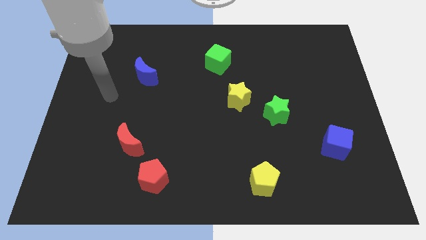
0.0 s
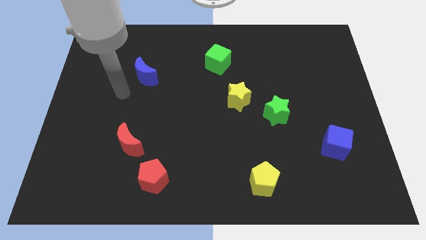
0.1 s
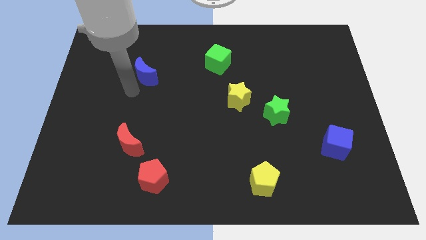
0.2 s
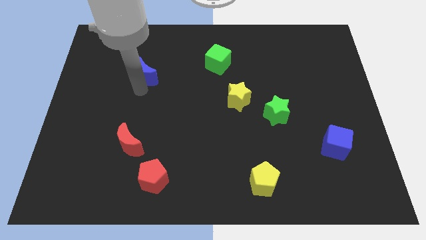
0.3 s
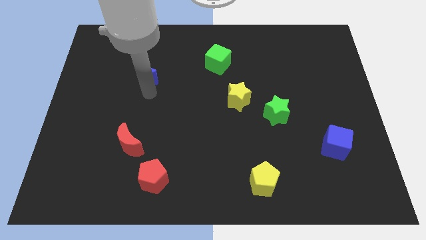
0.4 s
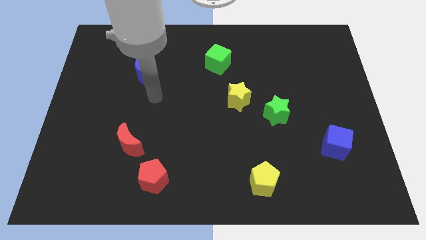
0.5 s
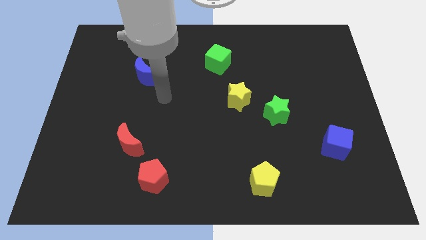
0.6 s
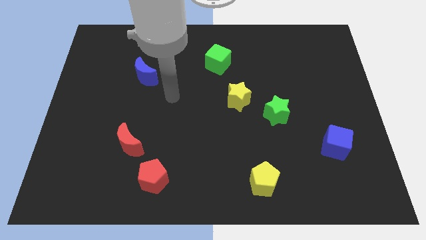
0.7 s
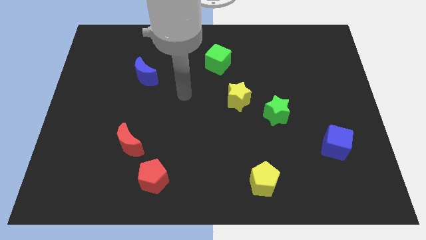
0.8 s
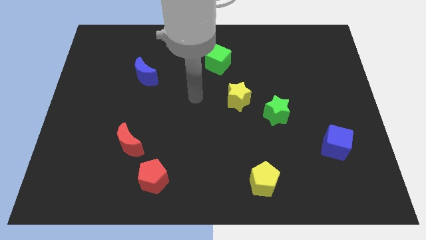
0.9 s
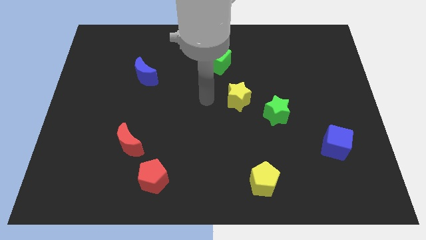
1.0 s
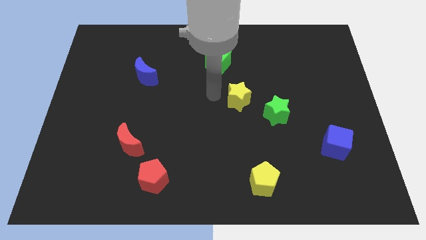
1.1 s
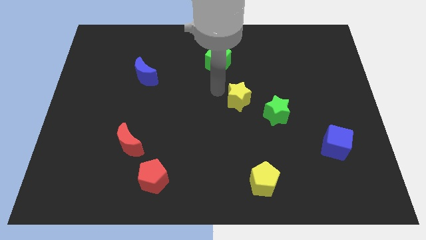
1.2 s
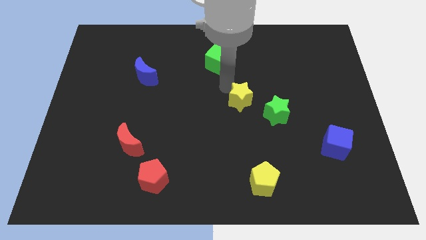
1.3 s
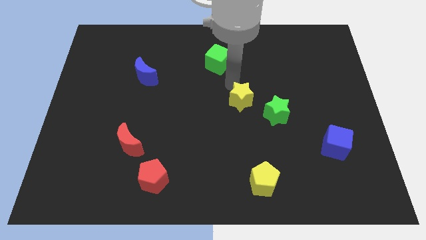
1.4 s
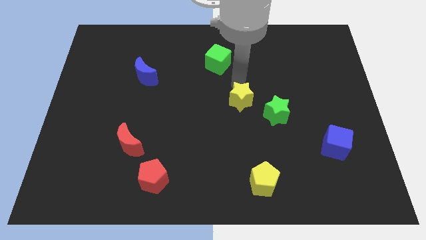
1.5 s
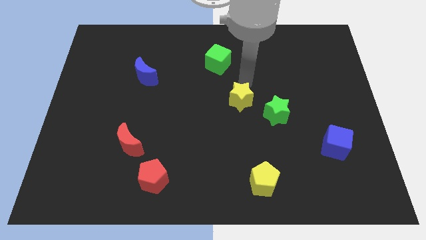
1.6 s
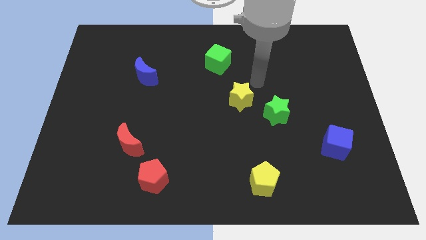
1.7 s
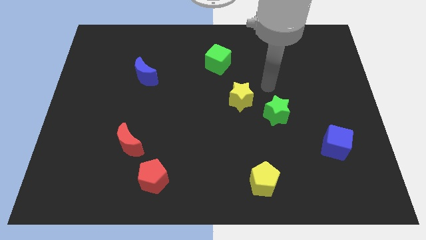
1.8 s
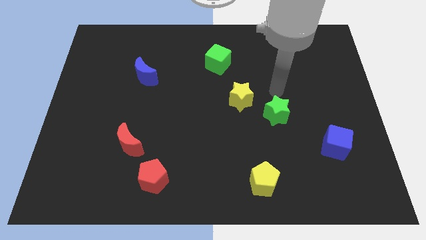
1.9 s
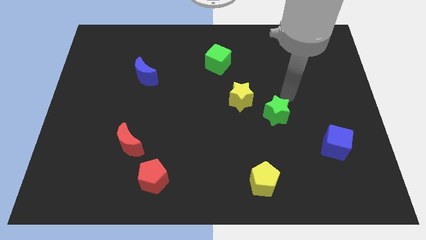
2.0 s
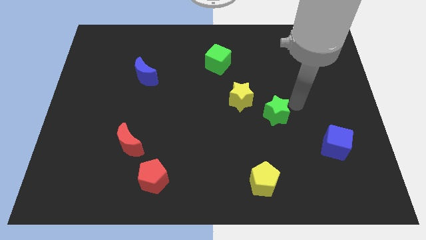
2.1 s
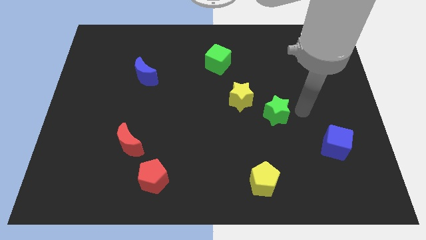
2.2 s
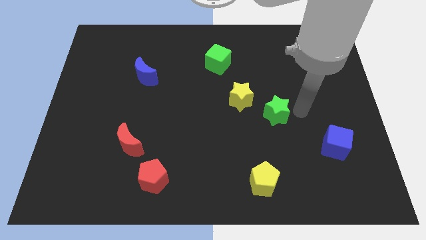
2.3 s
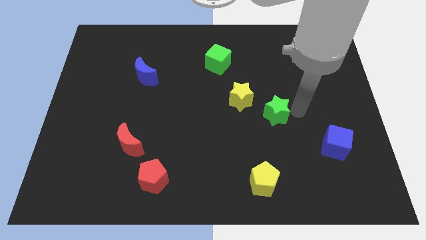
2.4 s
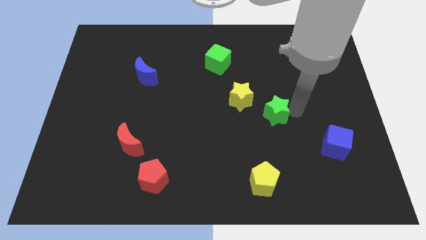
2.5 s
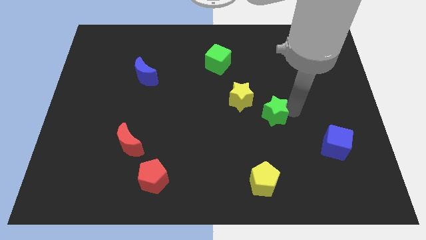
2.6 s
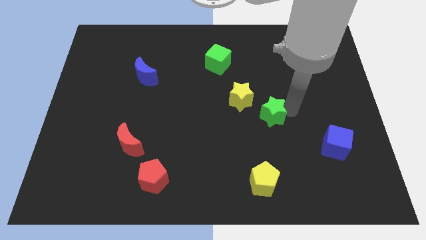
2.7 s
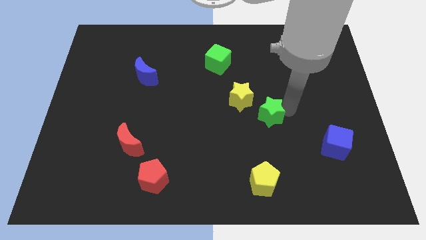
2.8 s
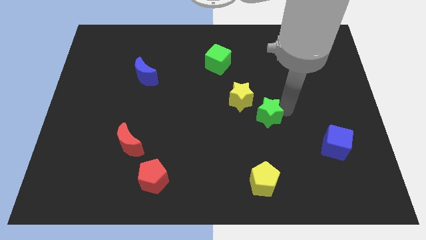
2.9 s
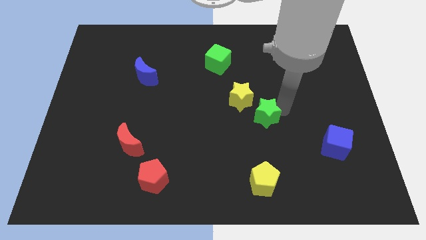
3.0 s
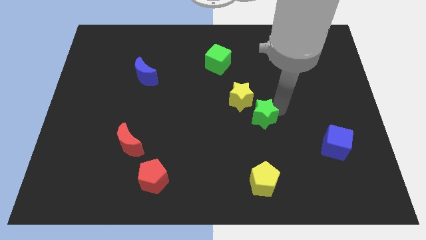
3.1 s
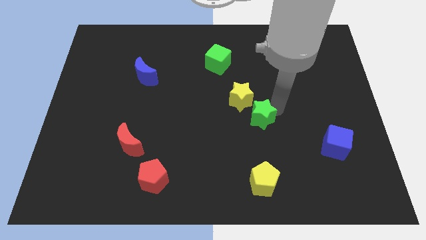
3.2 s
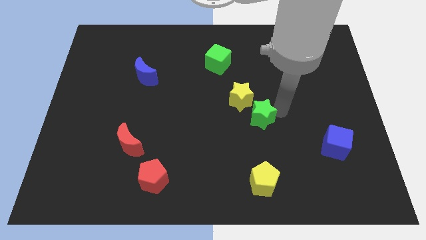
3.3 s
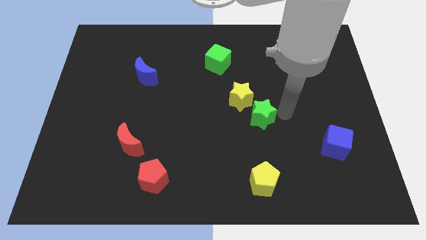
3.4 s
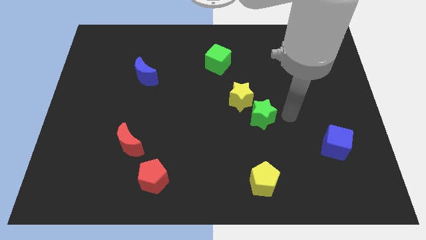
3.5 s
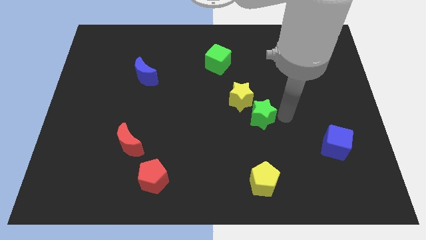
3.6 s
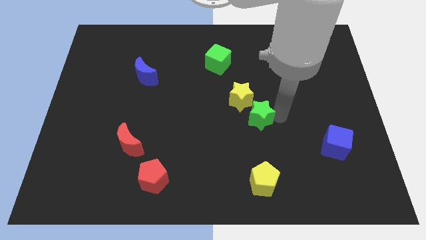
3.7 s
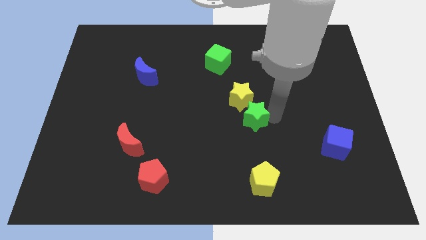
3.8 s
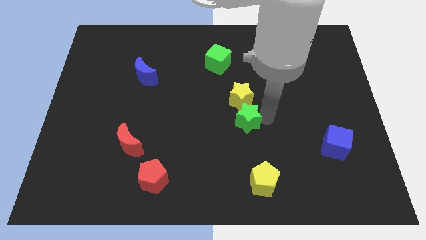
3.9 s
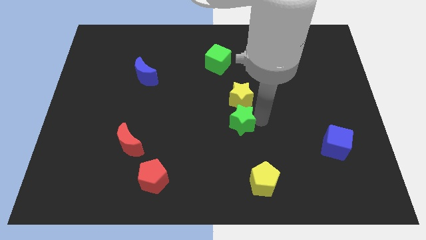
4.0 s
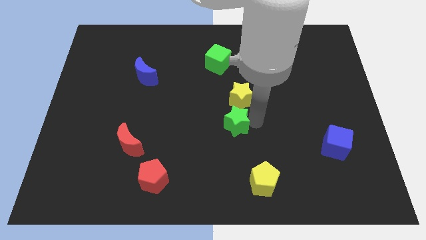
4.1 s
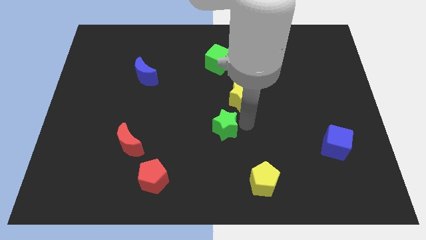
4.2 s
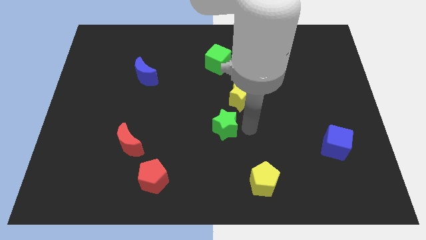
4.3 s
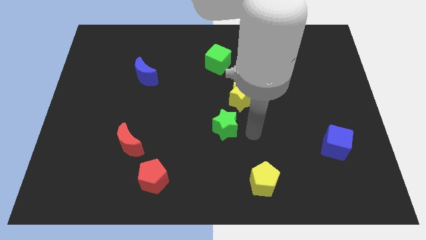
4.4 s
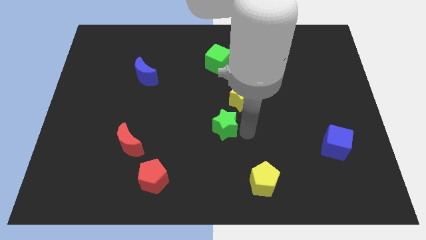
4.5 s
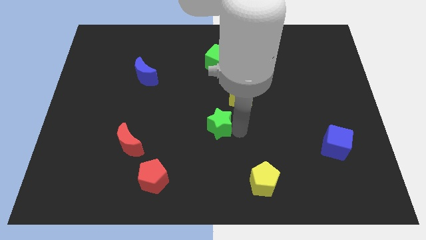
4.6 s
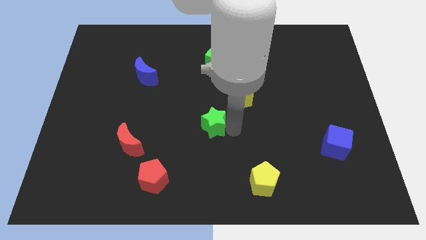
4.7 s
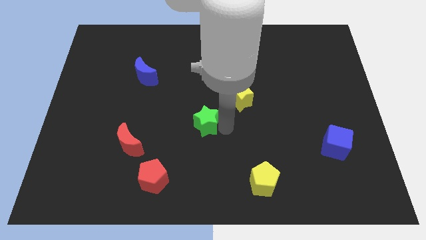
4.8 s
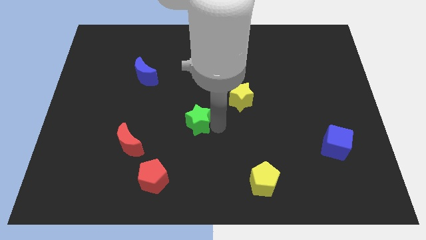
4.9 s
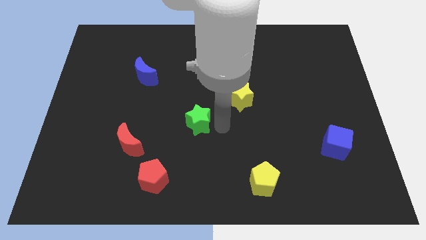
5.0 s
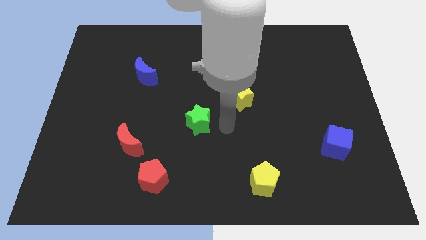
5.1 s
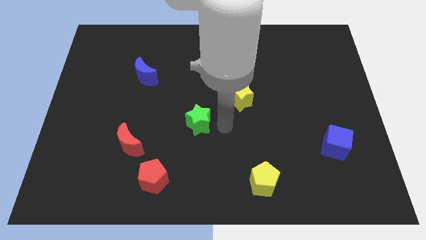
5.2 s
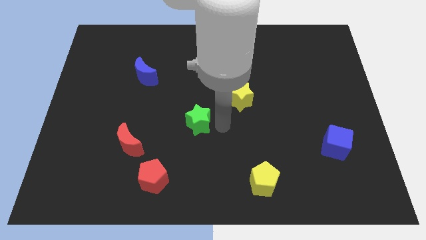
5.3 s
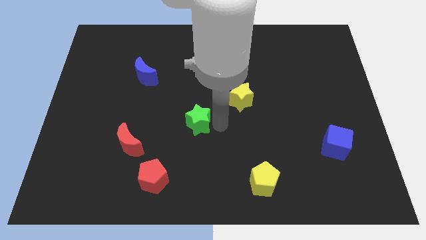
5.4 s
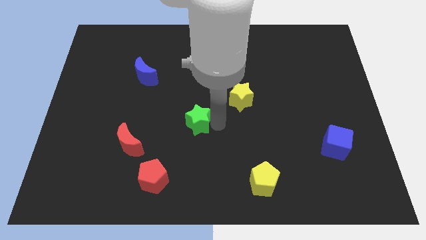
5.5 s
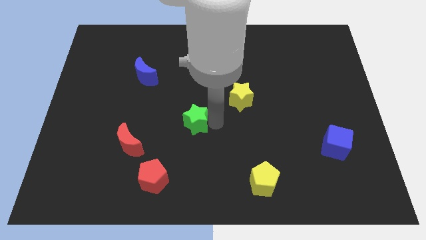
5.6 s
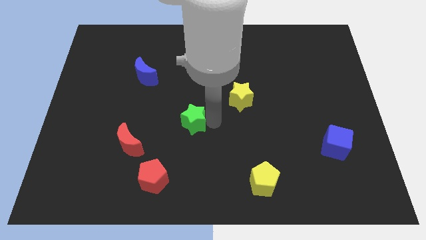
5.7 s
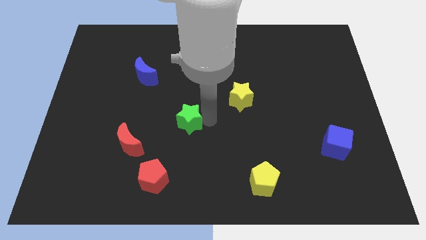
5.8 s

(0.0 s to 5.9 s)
push the green star left

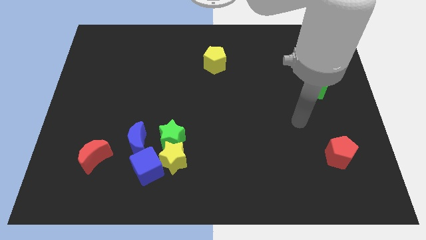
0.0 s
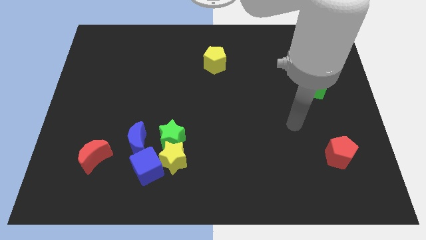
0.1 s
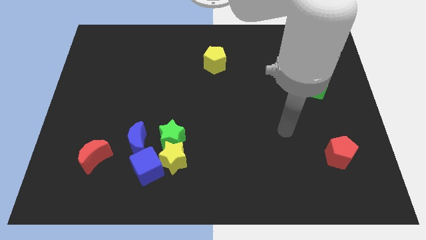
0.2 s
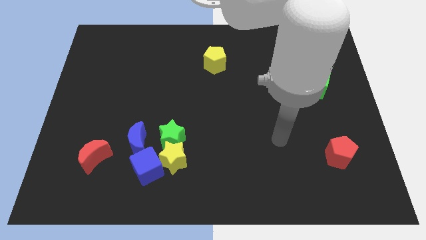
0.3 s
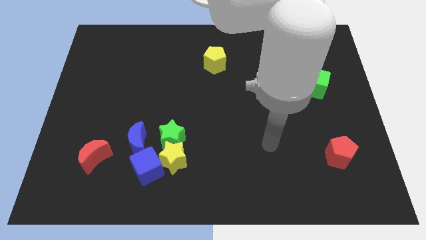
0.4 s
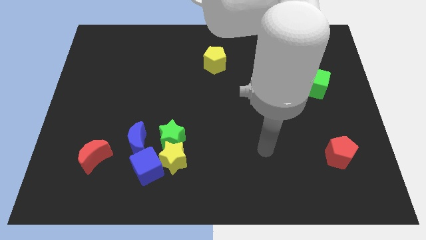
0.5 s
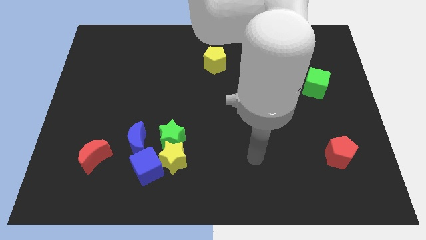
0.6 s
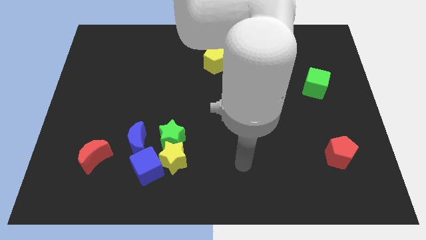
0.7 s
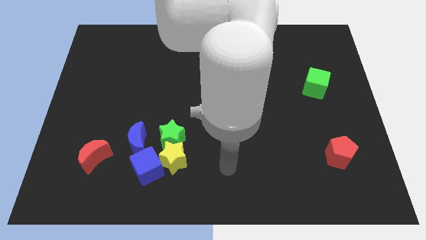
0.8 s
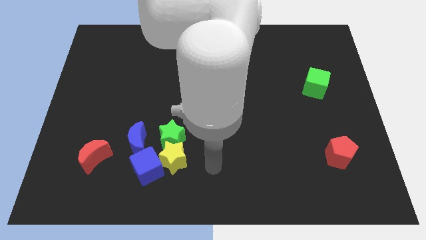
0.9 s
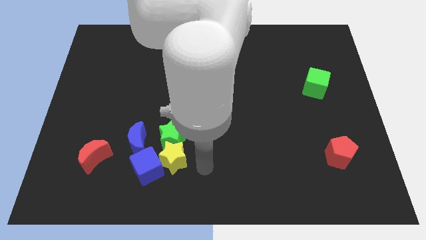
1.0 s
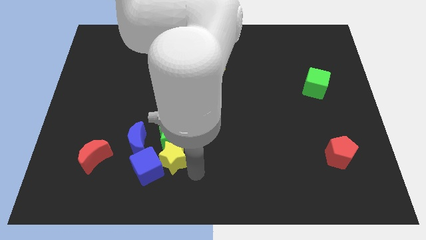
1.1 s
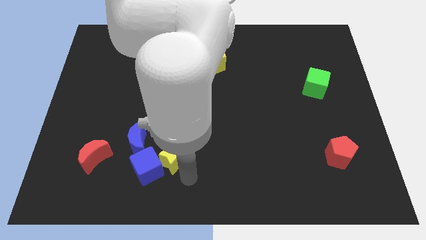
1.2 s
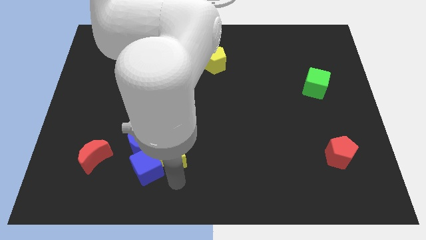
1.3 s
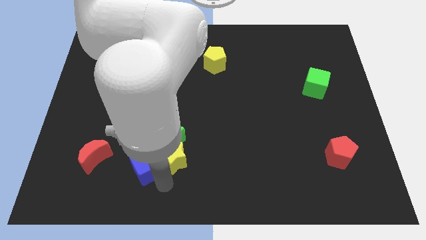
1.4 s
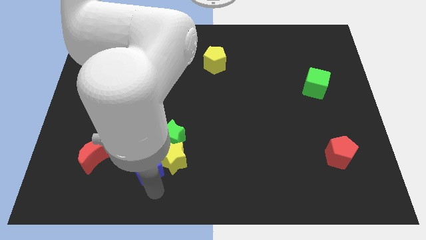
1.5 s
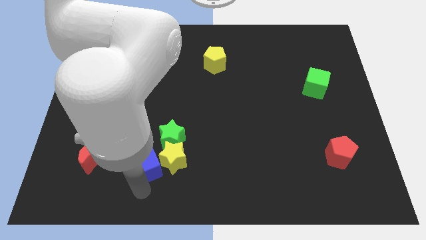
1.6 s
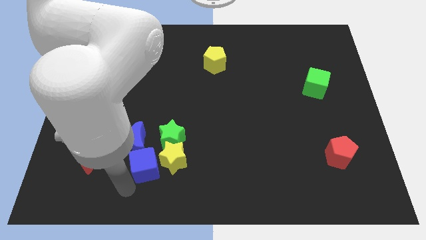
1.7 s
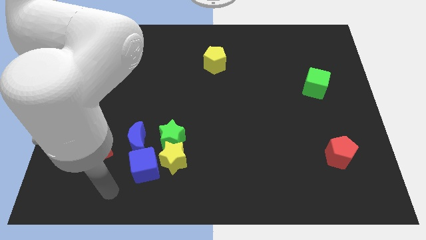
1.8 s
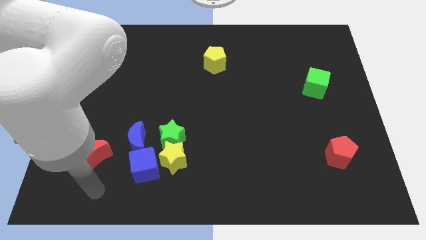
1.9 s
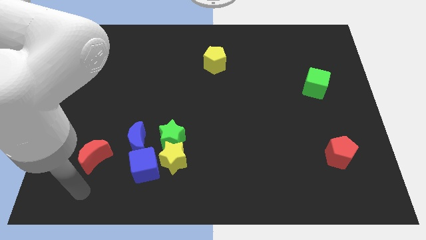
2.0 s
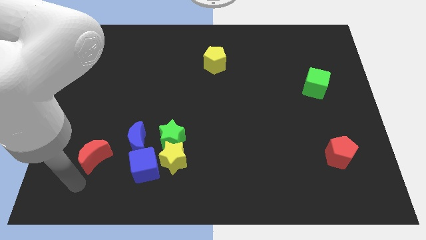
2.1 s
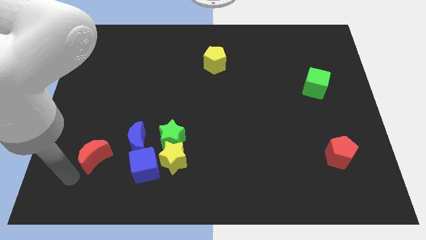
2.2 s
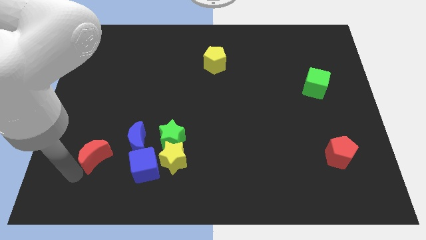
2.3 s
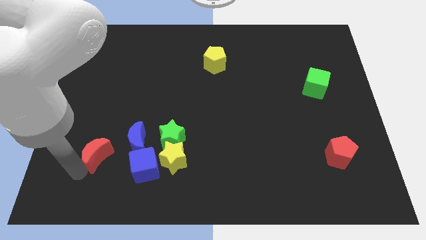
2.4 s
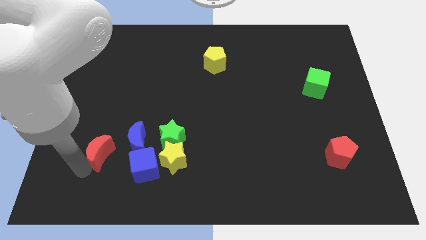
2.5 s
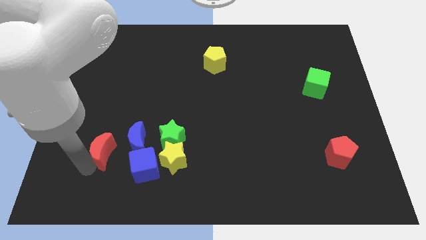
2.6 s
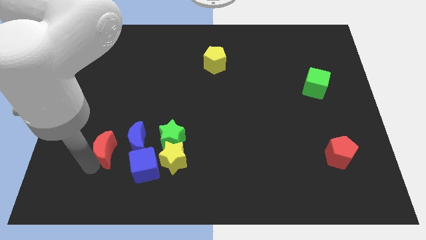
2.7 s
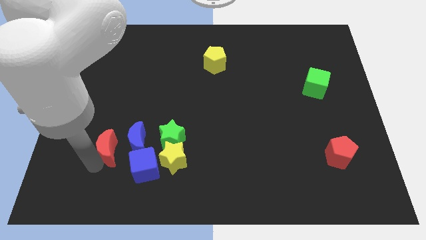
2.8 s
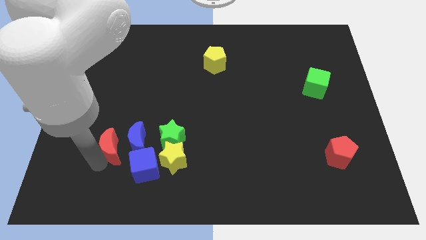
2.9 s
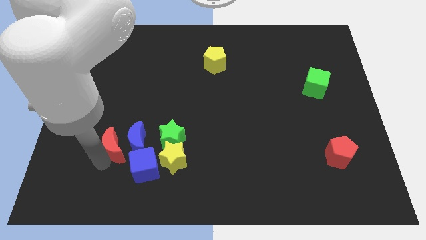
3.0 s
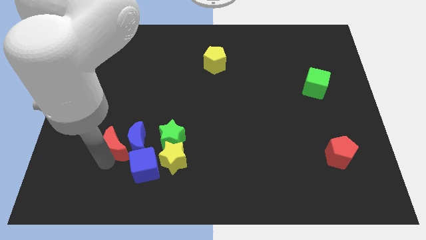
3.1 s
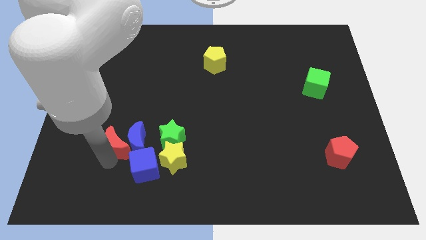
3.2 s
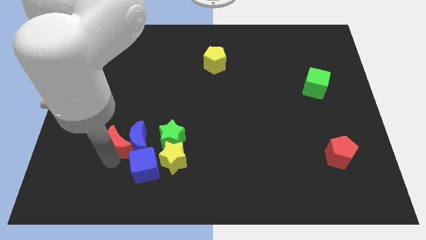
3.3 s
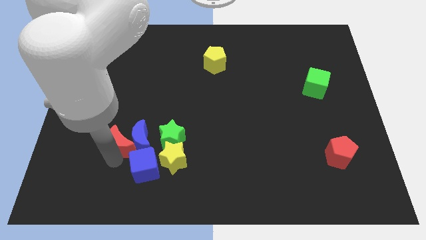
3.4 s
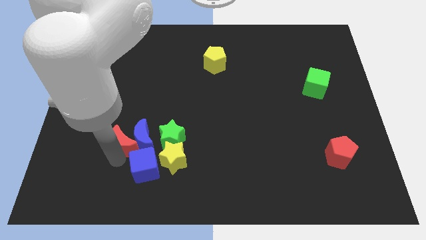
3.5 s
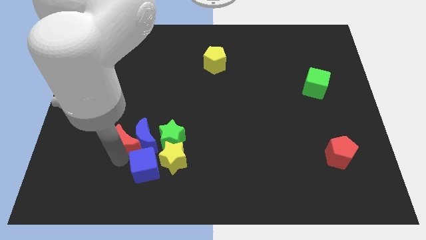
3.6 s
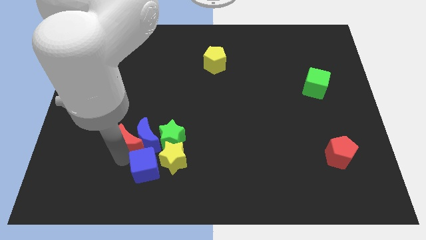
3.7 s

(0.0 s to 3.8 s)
move the red moon a little diagonally up and to the right
